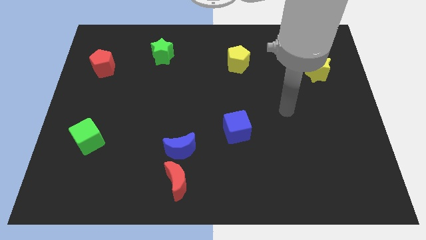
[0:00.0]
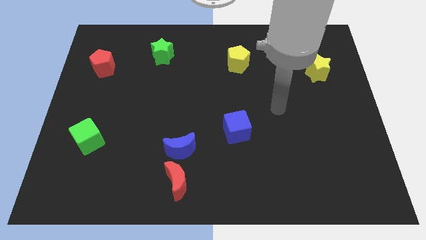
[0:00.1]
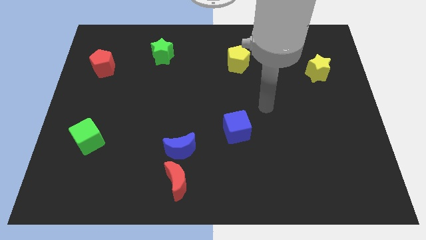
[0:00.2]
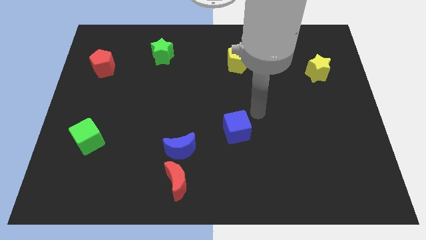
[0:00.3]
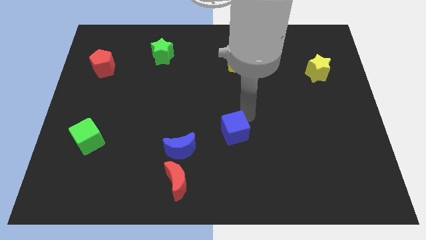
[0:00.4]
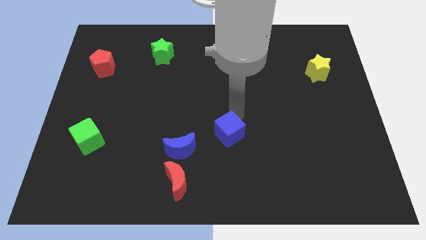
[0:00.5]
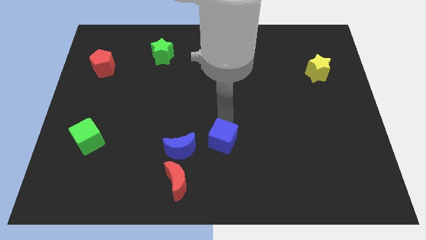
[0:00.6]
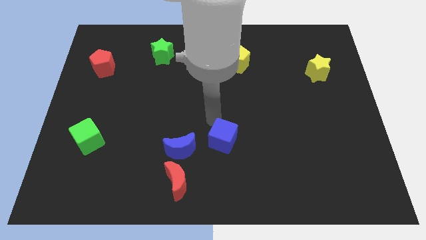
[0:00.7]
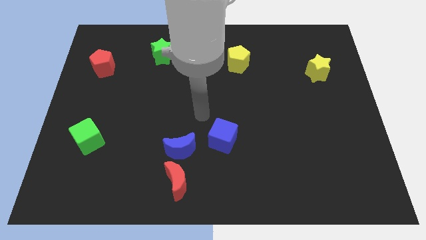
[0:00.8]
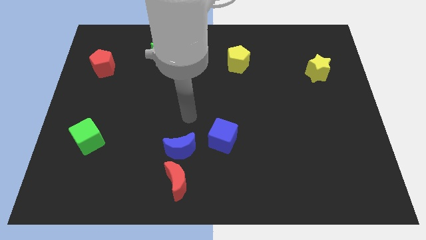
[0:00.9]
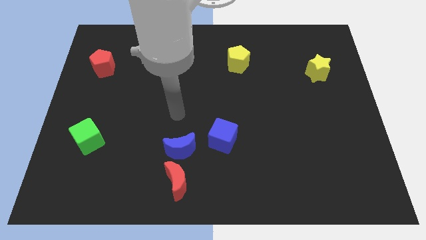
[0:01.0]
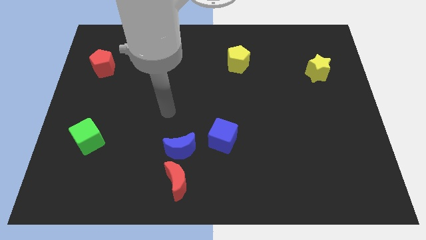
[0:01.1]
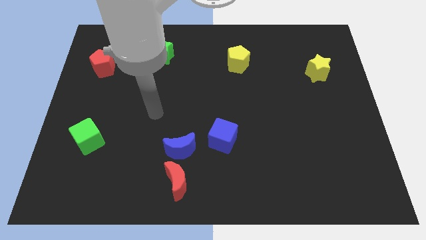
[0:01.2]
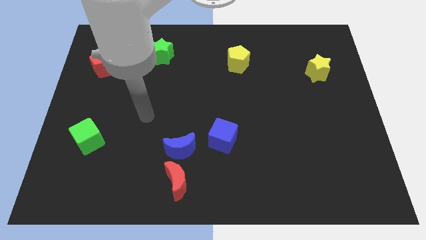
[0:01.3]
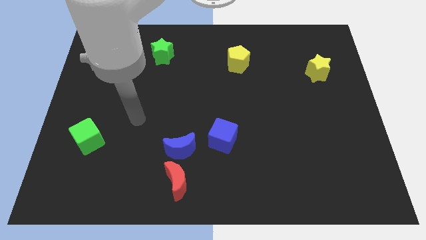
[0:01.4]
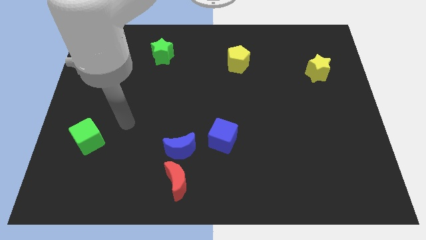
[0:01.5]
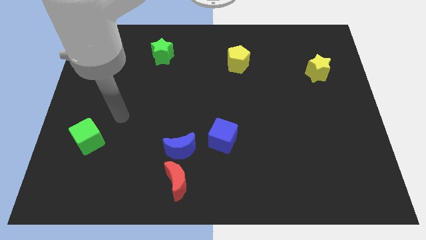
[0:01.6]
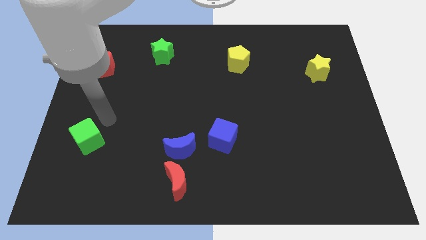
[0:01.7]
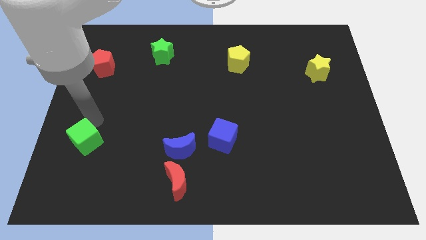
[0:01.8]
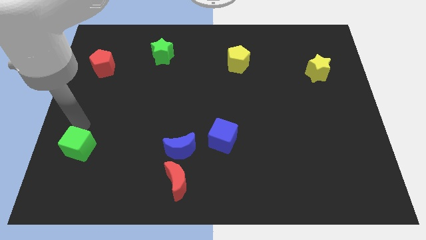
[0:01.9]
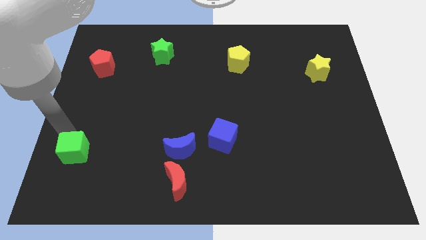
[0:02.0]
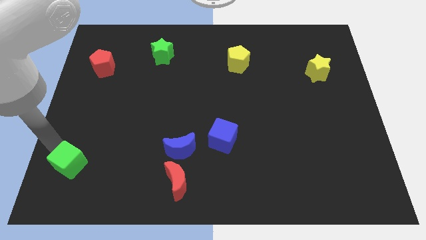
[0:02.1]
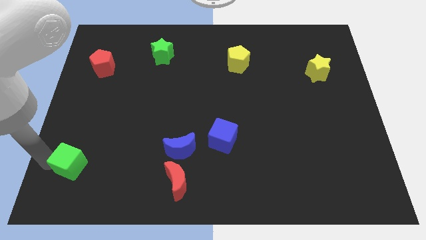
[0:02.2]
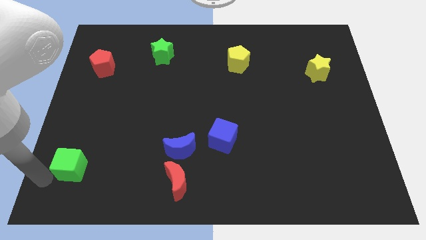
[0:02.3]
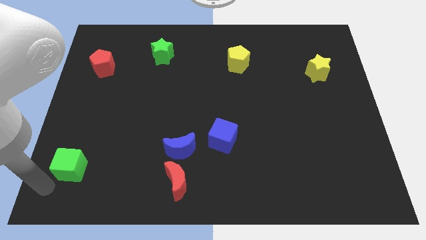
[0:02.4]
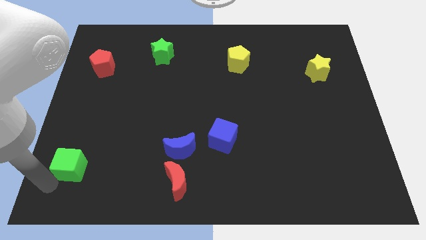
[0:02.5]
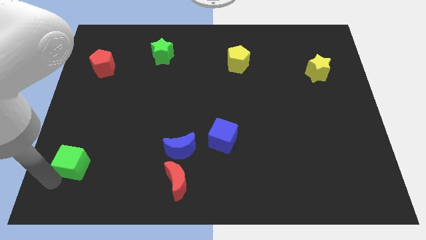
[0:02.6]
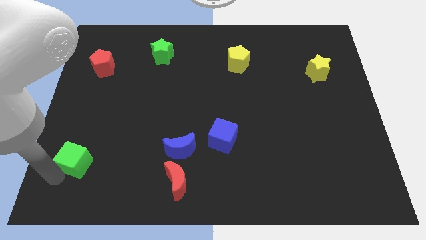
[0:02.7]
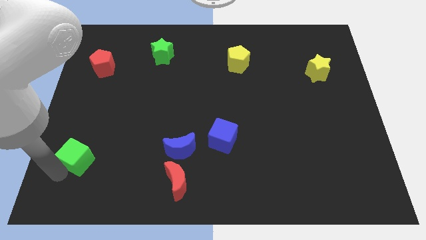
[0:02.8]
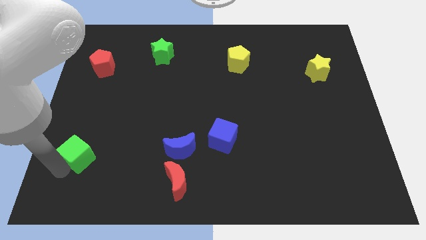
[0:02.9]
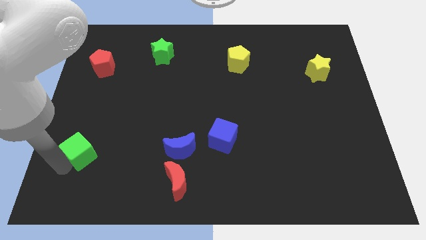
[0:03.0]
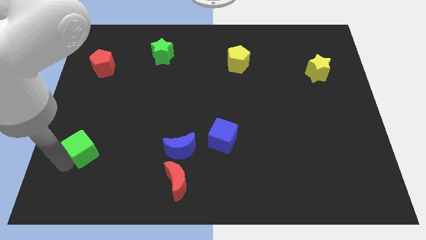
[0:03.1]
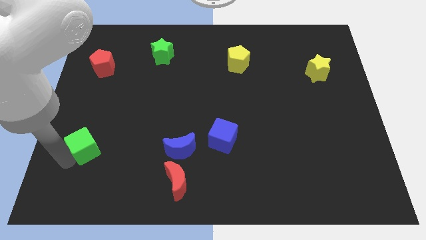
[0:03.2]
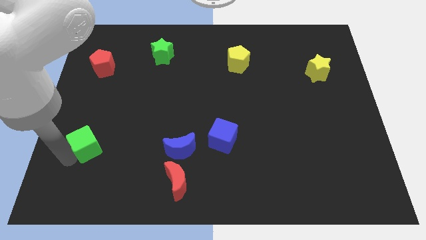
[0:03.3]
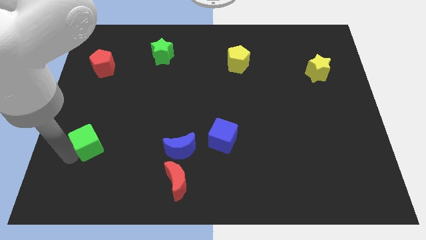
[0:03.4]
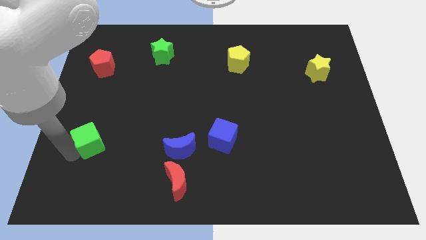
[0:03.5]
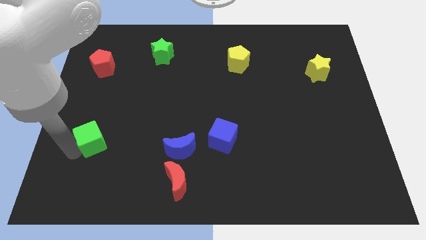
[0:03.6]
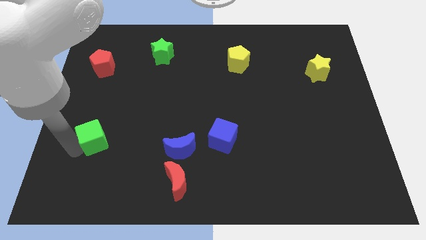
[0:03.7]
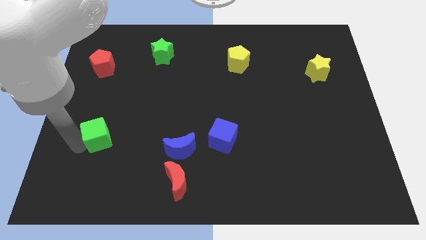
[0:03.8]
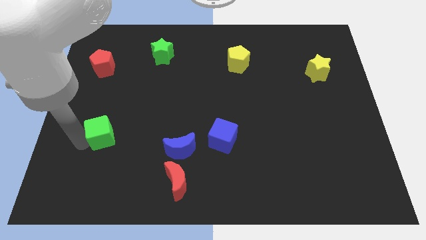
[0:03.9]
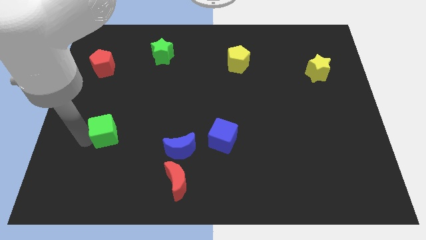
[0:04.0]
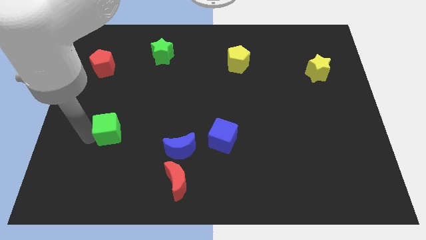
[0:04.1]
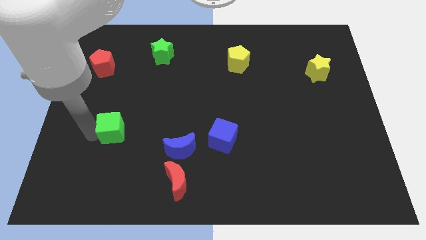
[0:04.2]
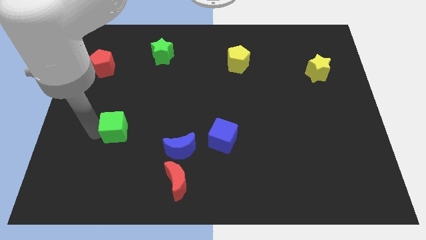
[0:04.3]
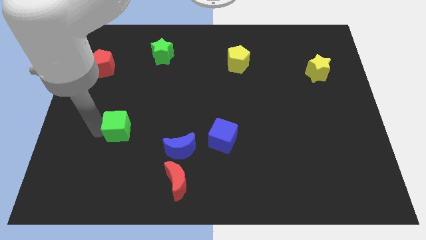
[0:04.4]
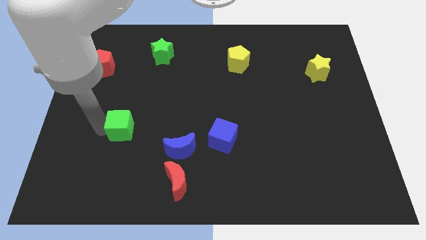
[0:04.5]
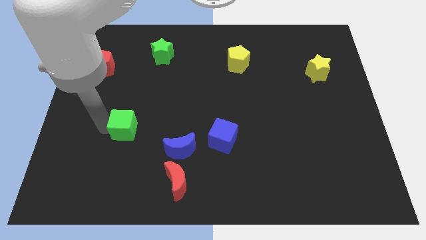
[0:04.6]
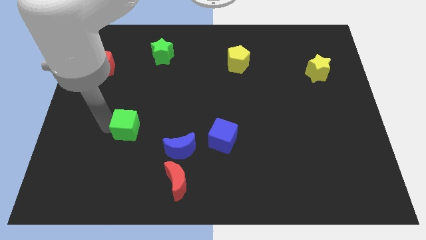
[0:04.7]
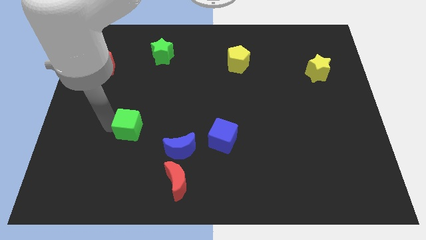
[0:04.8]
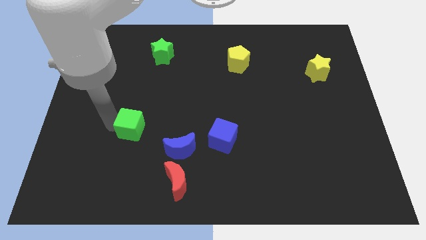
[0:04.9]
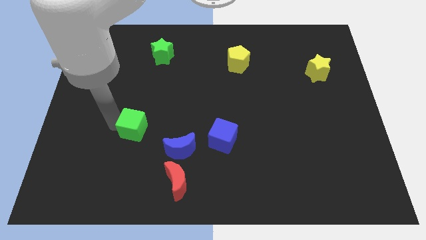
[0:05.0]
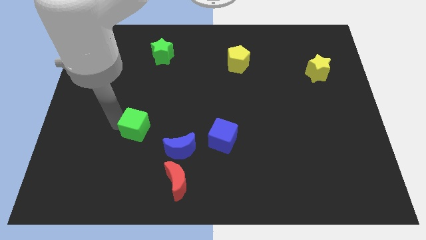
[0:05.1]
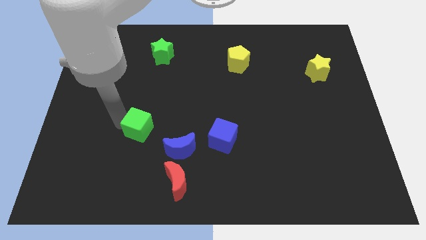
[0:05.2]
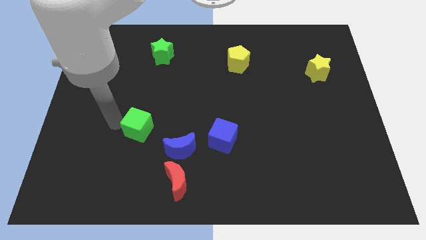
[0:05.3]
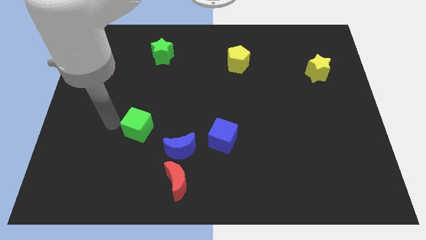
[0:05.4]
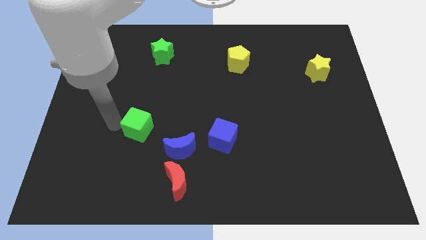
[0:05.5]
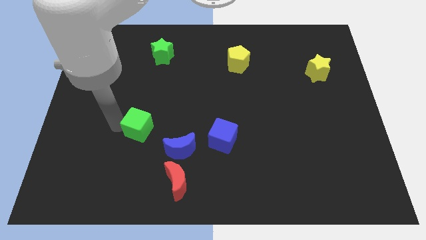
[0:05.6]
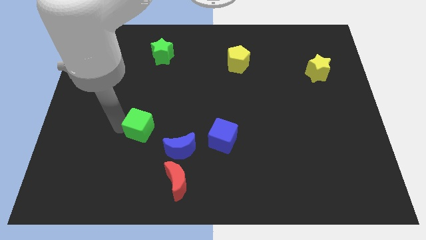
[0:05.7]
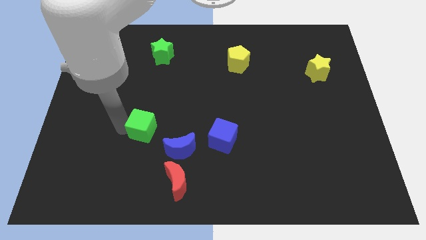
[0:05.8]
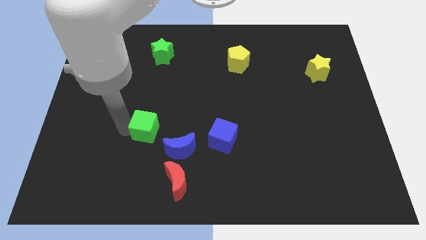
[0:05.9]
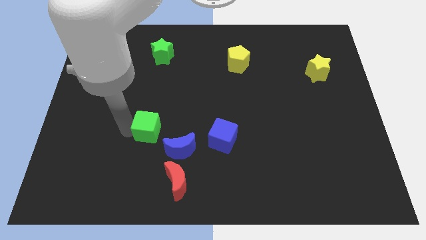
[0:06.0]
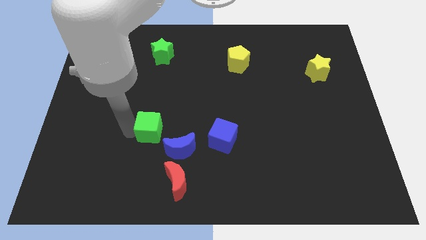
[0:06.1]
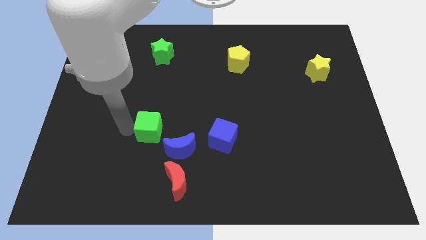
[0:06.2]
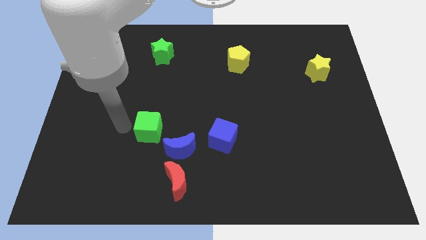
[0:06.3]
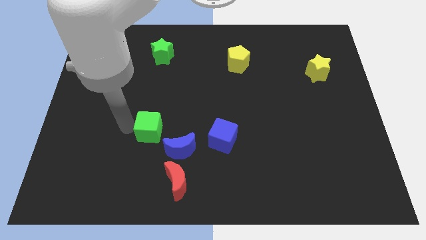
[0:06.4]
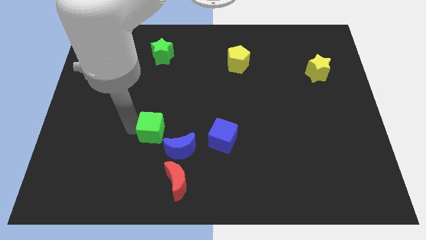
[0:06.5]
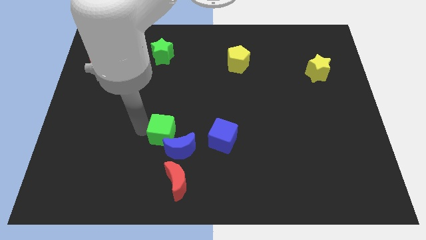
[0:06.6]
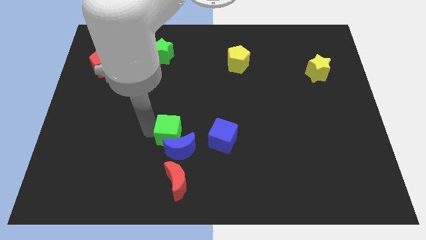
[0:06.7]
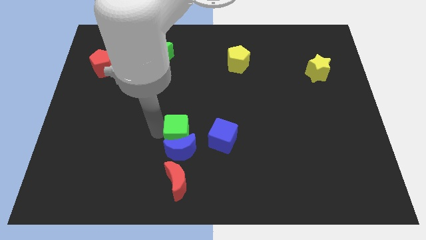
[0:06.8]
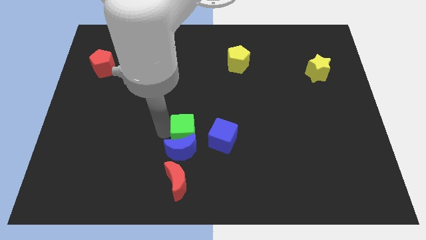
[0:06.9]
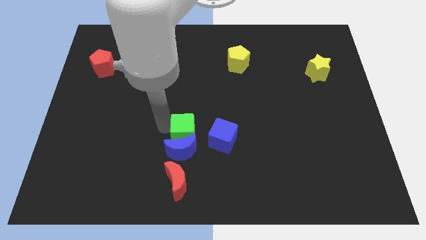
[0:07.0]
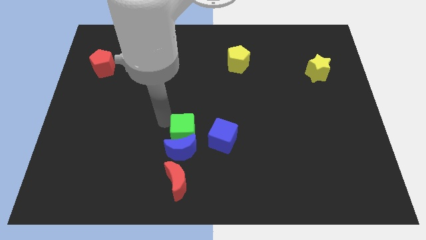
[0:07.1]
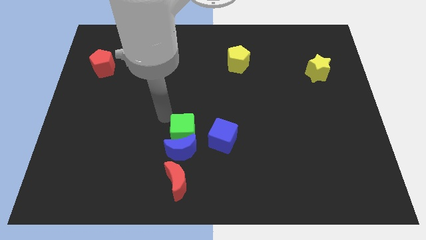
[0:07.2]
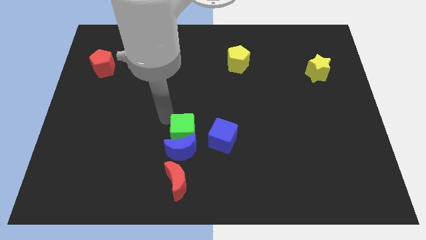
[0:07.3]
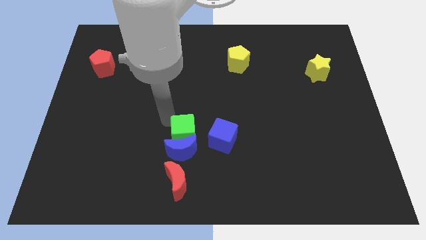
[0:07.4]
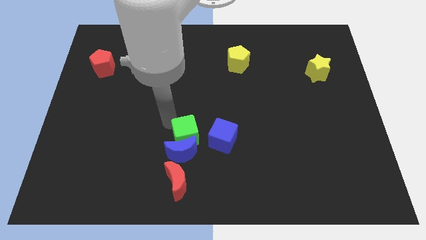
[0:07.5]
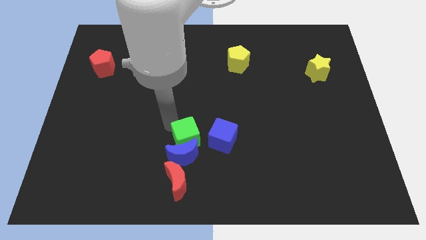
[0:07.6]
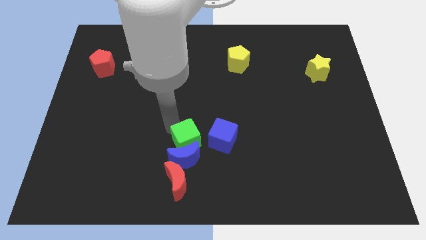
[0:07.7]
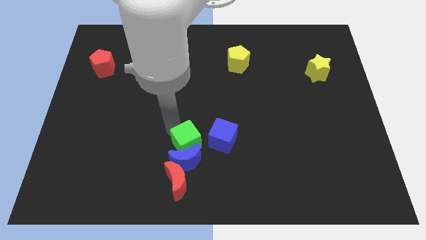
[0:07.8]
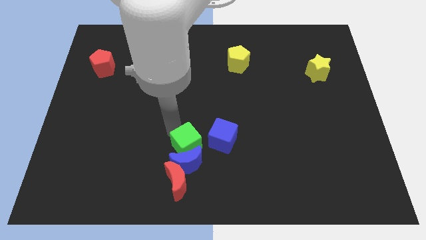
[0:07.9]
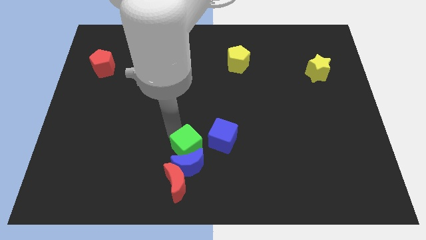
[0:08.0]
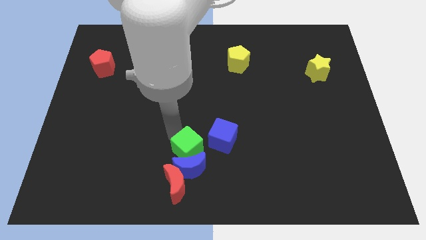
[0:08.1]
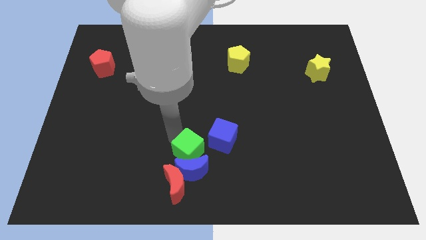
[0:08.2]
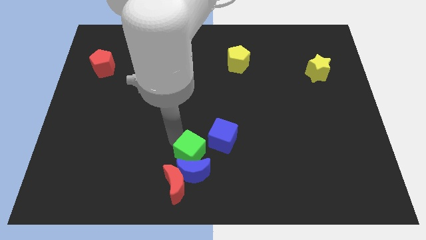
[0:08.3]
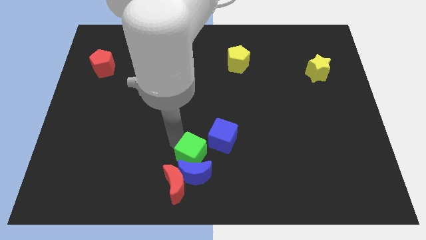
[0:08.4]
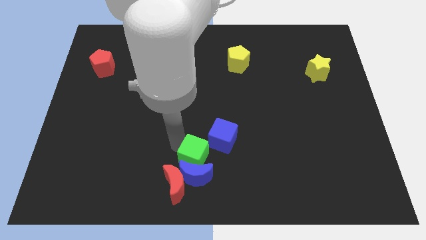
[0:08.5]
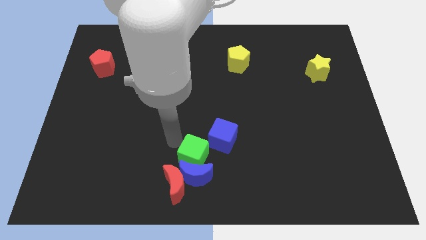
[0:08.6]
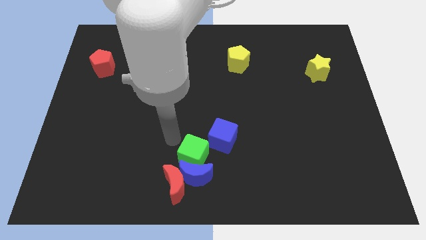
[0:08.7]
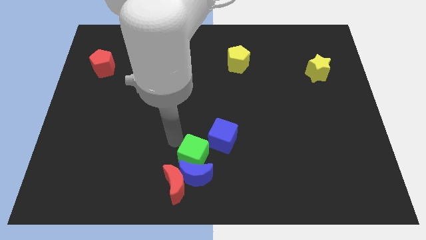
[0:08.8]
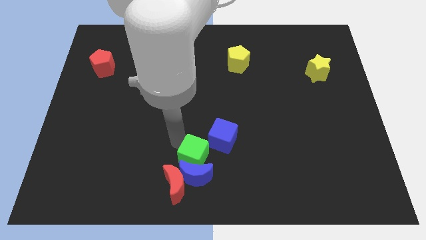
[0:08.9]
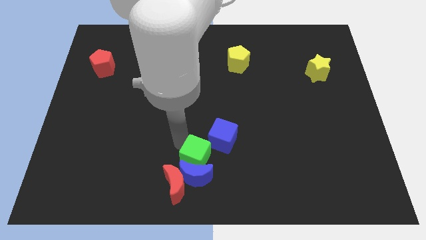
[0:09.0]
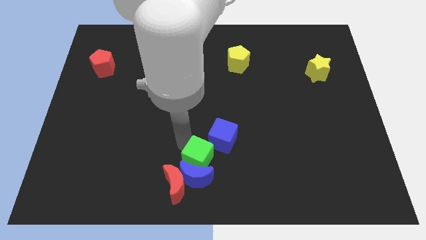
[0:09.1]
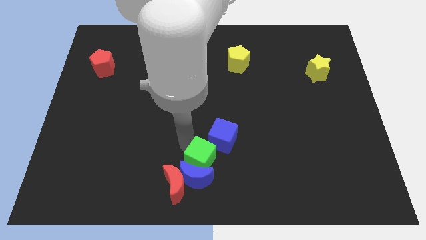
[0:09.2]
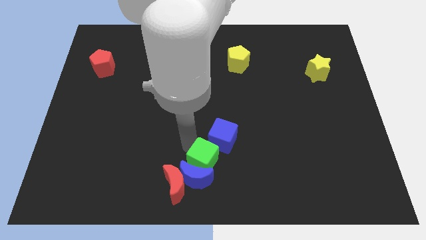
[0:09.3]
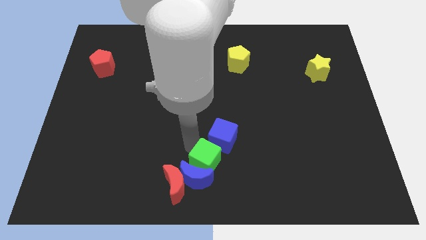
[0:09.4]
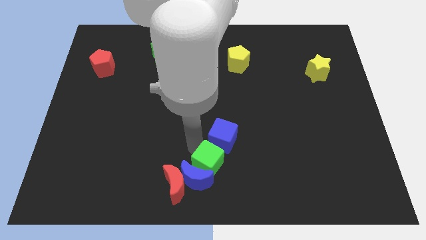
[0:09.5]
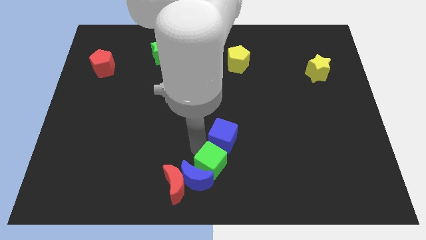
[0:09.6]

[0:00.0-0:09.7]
slide the green cube right of the red moon
